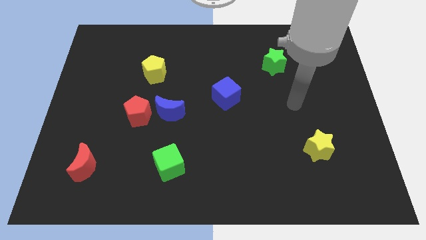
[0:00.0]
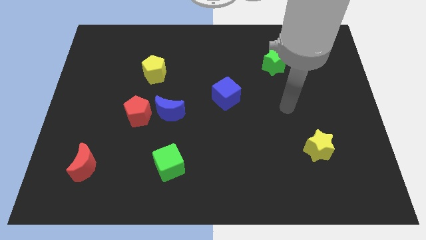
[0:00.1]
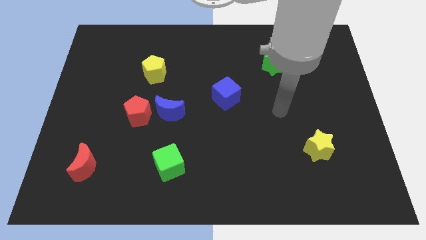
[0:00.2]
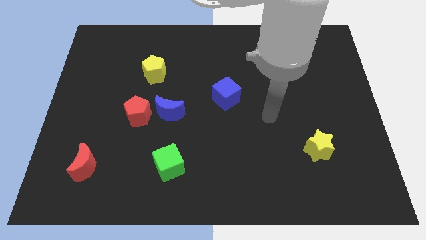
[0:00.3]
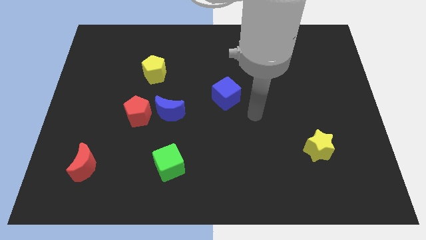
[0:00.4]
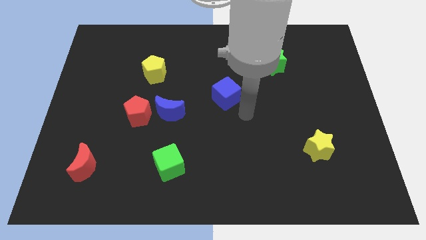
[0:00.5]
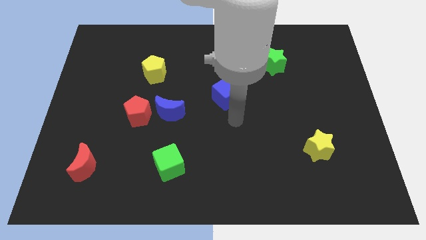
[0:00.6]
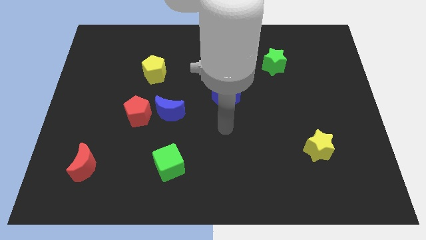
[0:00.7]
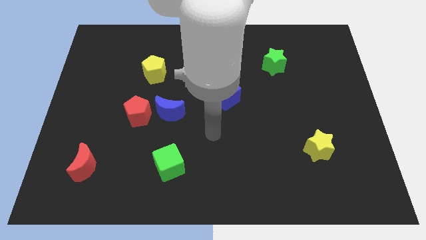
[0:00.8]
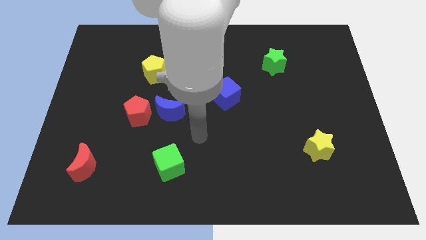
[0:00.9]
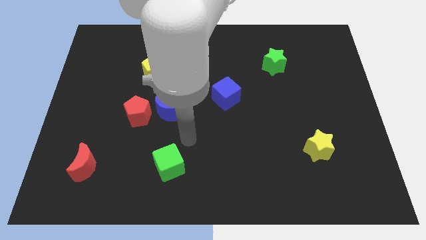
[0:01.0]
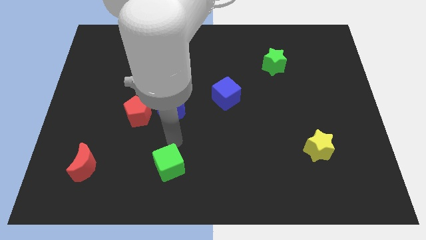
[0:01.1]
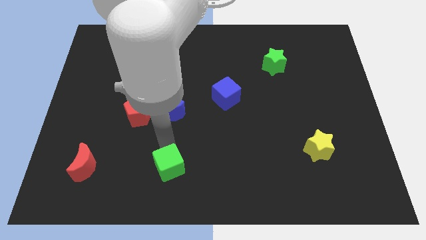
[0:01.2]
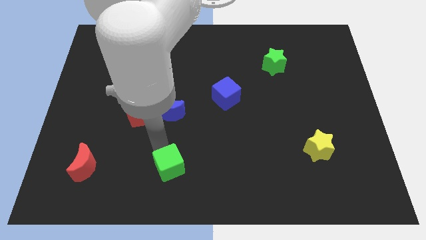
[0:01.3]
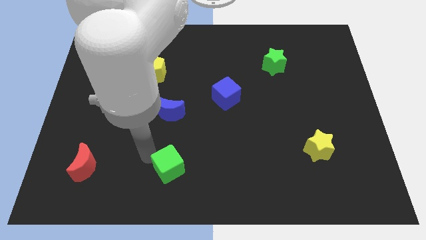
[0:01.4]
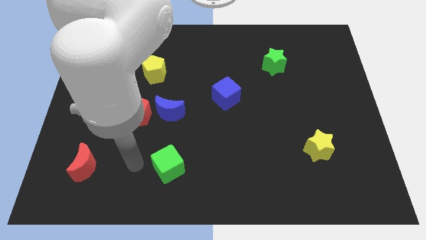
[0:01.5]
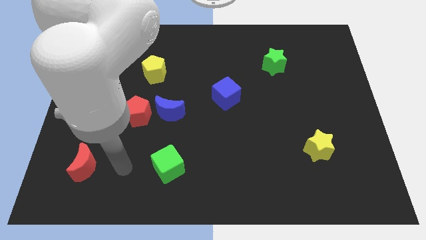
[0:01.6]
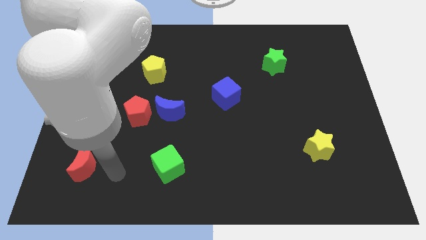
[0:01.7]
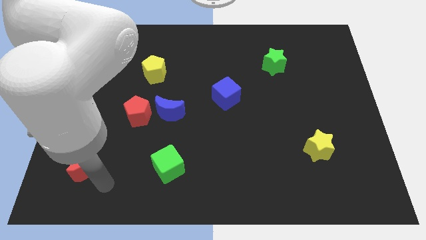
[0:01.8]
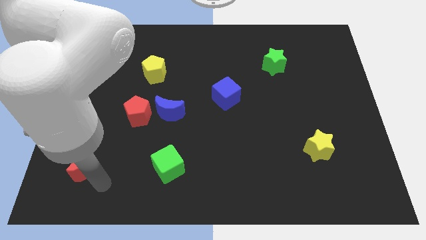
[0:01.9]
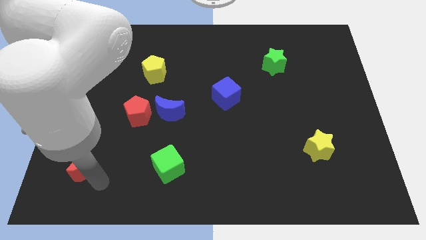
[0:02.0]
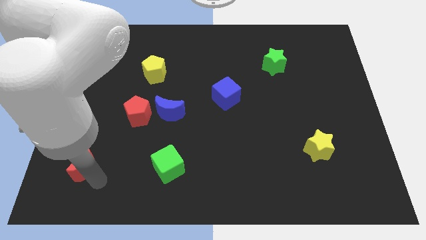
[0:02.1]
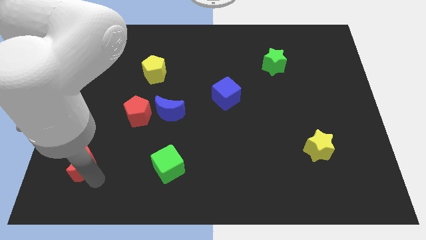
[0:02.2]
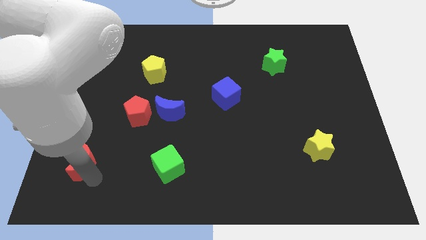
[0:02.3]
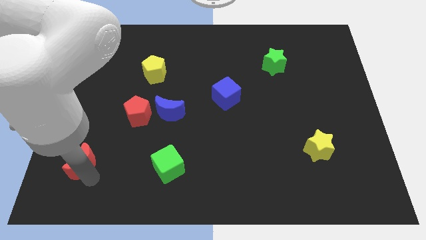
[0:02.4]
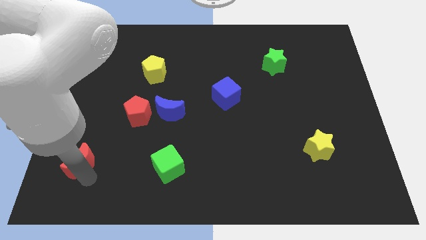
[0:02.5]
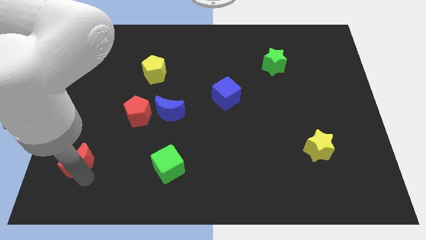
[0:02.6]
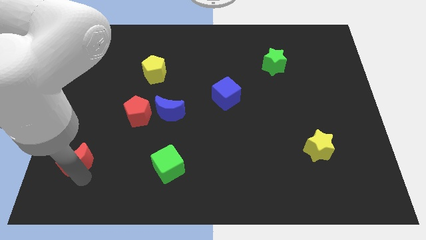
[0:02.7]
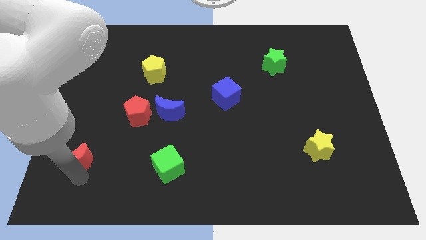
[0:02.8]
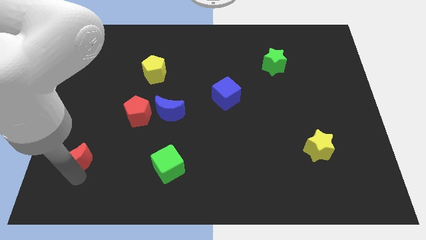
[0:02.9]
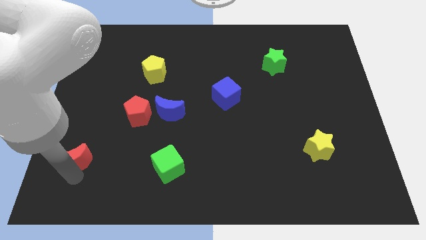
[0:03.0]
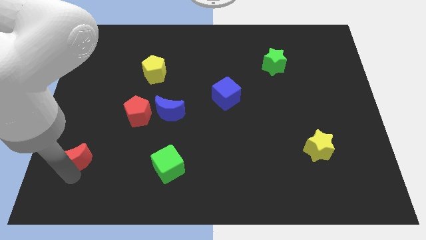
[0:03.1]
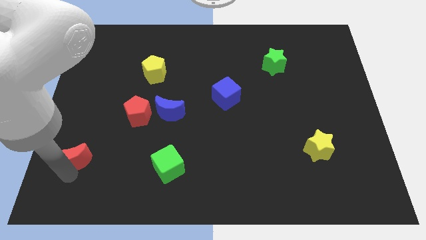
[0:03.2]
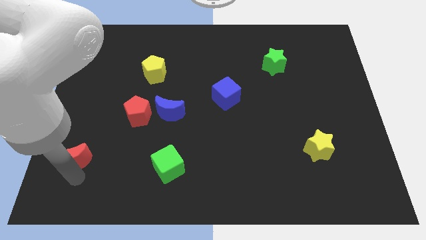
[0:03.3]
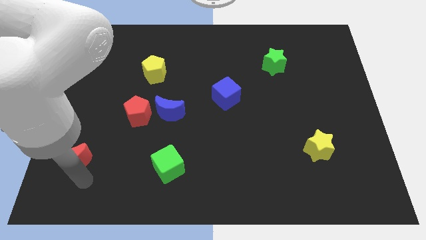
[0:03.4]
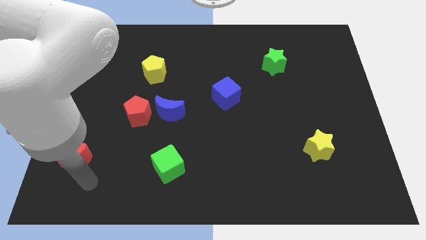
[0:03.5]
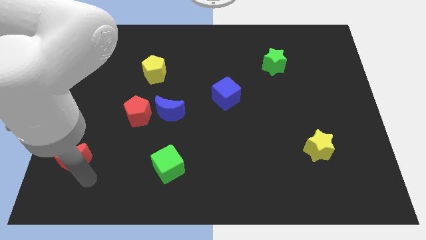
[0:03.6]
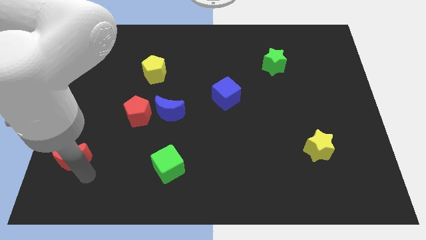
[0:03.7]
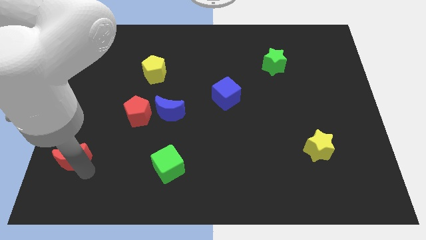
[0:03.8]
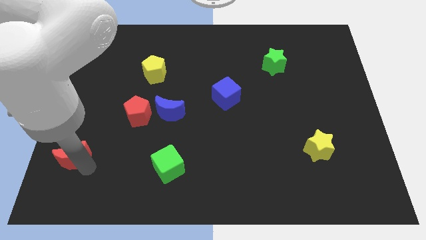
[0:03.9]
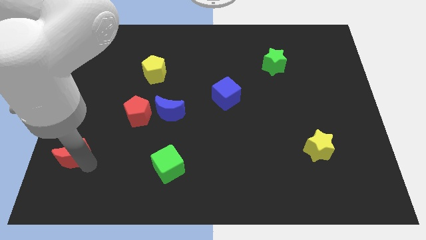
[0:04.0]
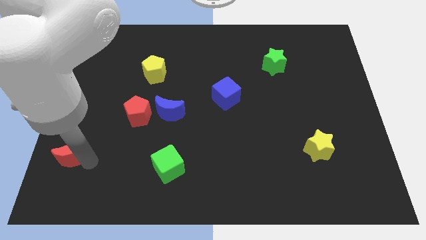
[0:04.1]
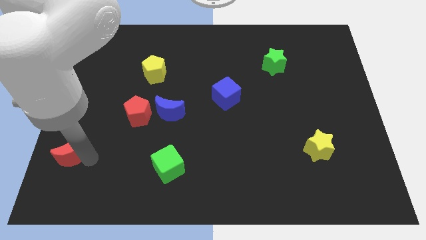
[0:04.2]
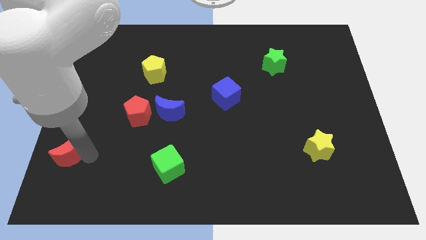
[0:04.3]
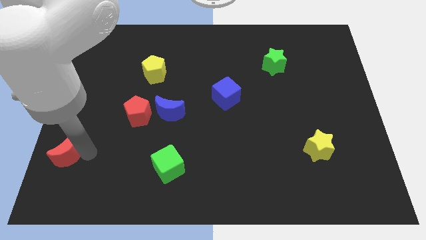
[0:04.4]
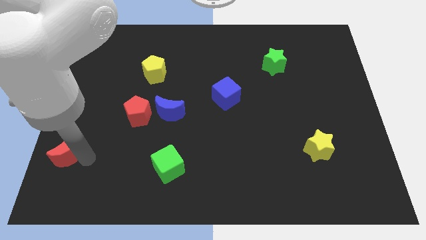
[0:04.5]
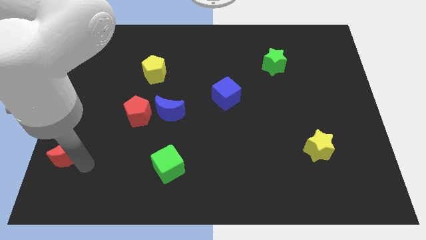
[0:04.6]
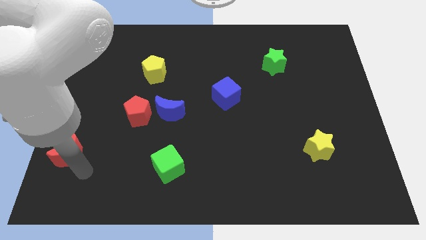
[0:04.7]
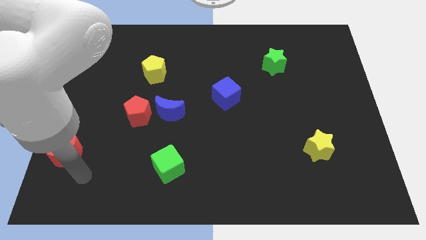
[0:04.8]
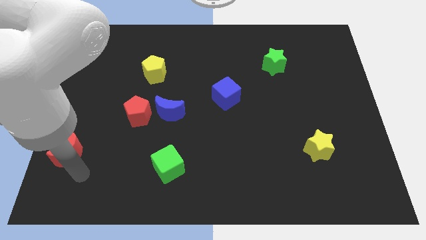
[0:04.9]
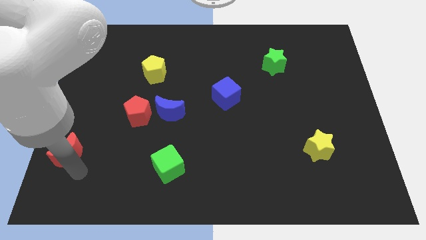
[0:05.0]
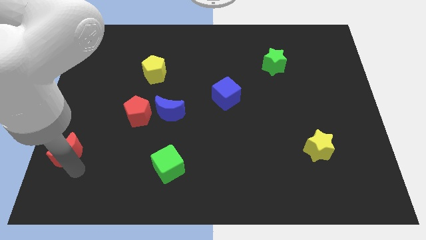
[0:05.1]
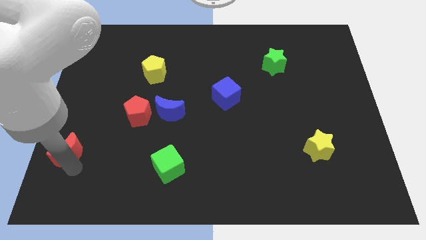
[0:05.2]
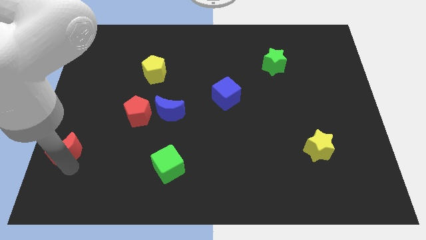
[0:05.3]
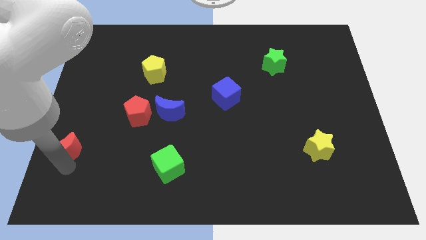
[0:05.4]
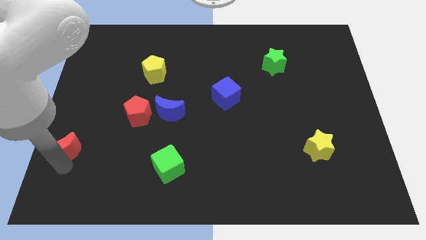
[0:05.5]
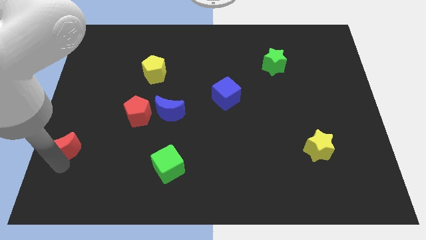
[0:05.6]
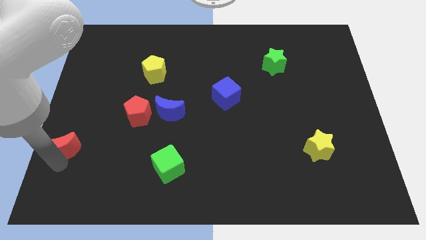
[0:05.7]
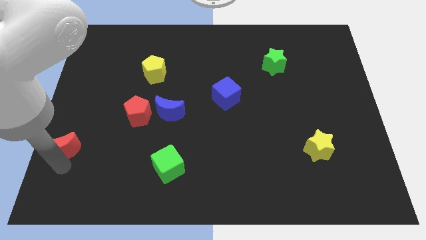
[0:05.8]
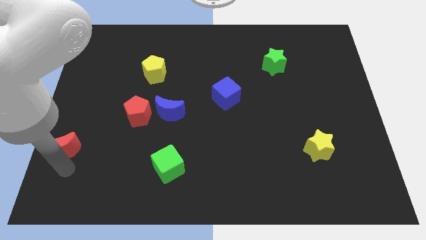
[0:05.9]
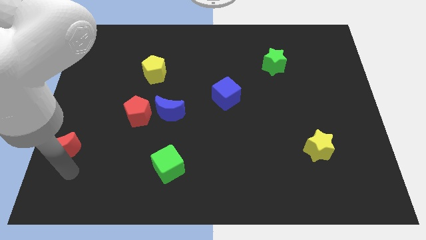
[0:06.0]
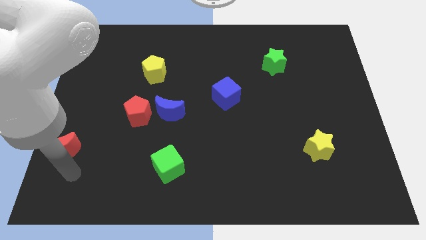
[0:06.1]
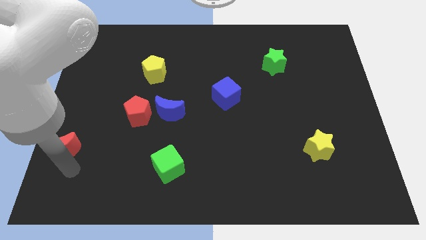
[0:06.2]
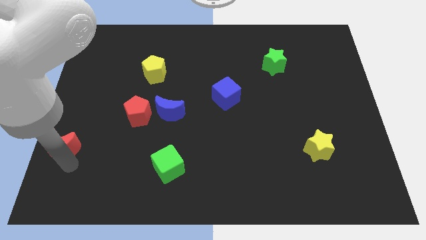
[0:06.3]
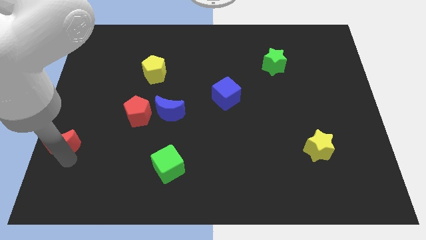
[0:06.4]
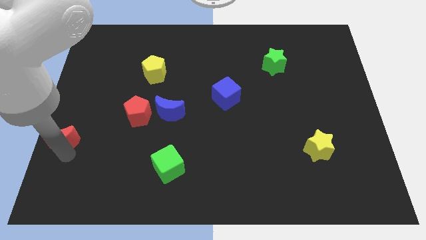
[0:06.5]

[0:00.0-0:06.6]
push the red moon to the center left
